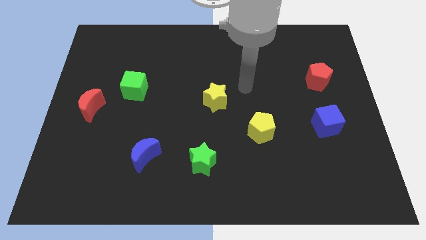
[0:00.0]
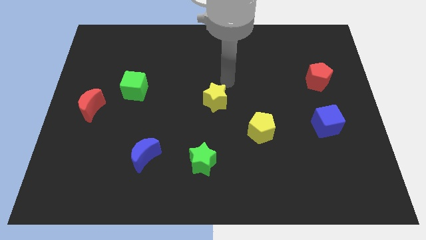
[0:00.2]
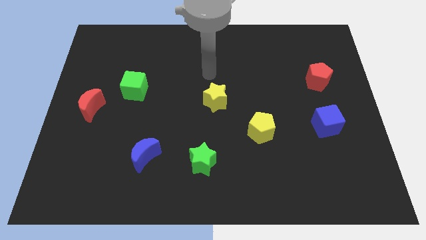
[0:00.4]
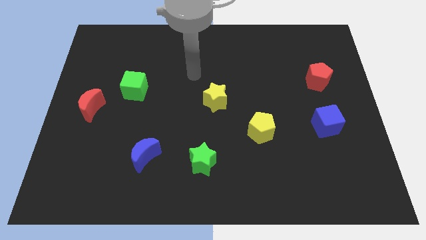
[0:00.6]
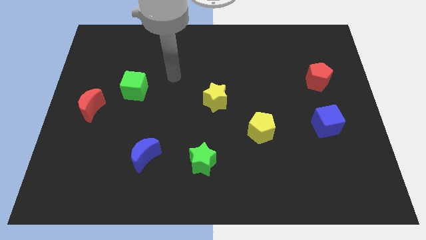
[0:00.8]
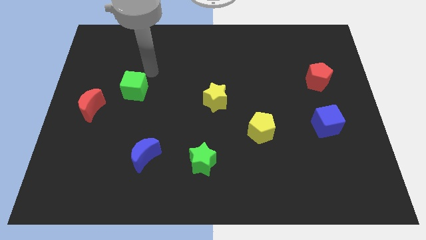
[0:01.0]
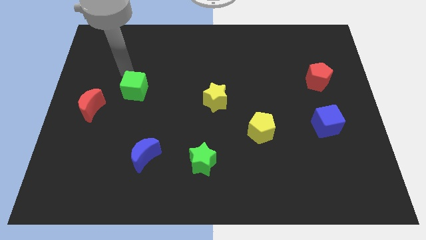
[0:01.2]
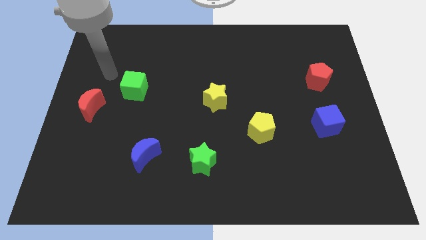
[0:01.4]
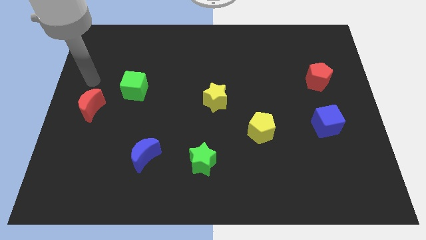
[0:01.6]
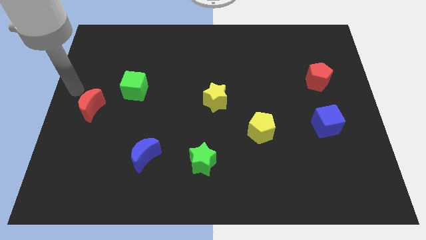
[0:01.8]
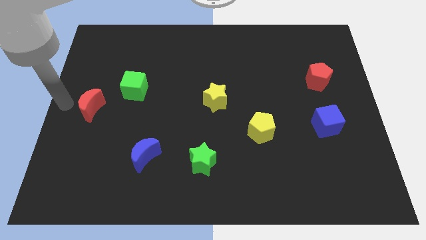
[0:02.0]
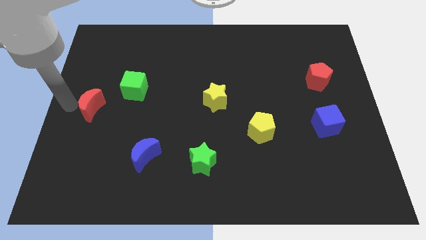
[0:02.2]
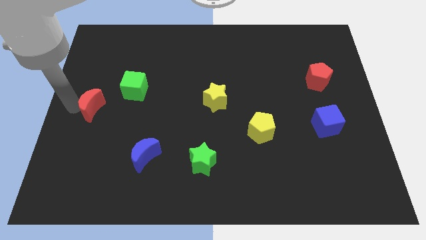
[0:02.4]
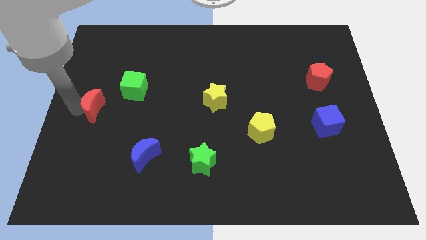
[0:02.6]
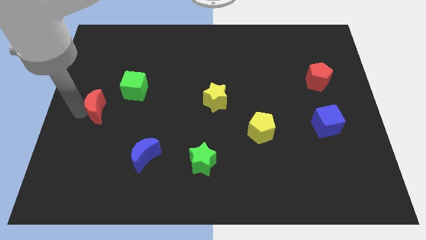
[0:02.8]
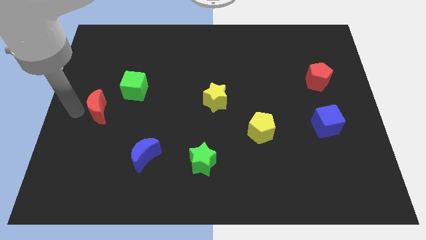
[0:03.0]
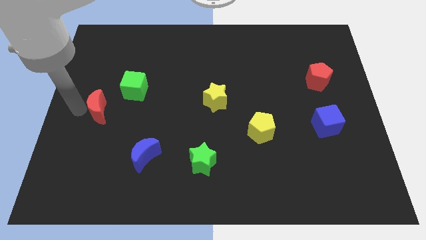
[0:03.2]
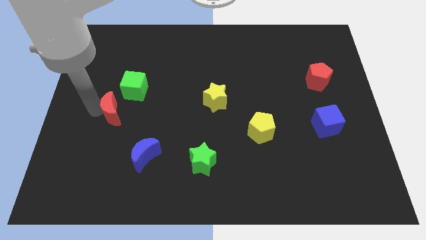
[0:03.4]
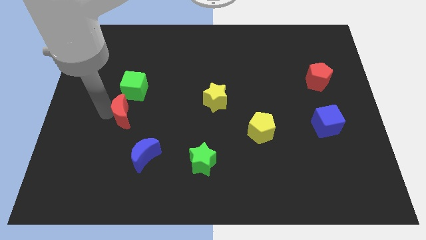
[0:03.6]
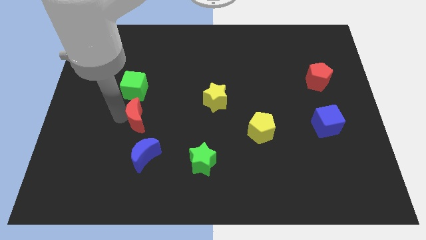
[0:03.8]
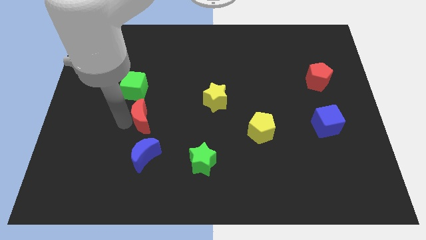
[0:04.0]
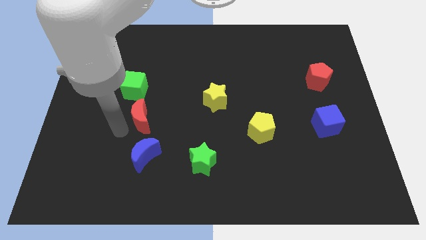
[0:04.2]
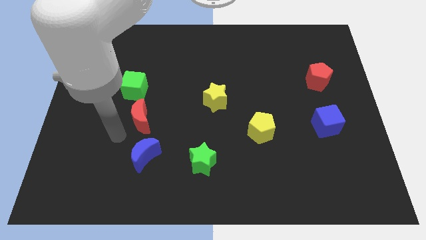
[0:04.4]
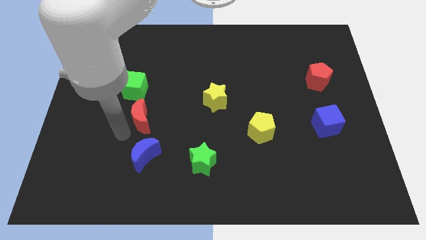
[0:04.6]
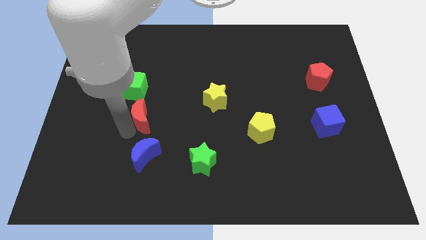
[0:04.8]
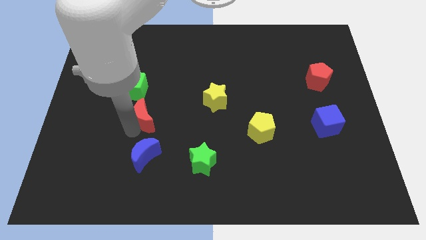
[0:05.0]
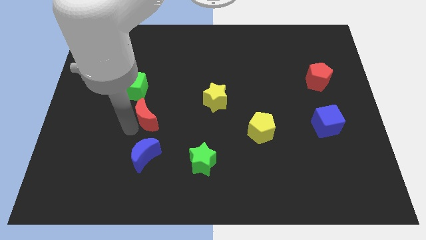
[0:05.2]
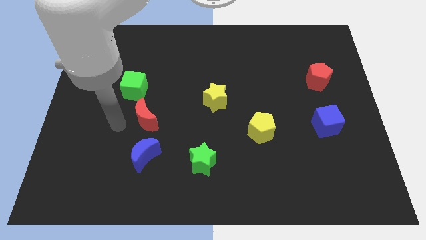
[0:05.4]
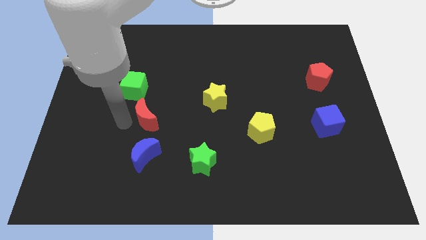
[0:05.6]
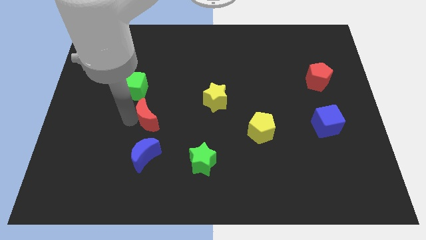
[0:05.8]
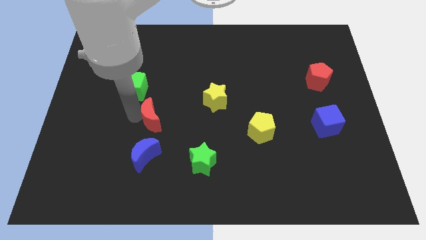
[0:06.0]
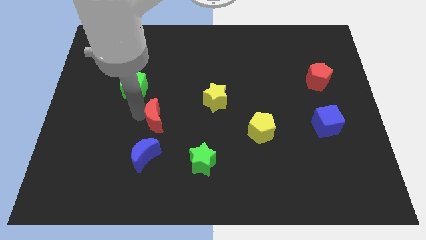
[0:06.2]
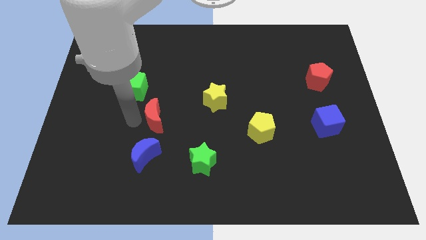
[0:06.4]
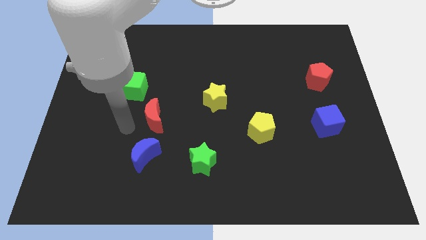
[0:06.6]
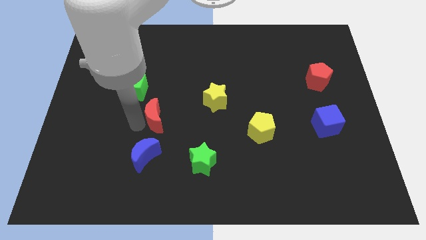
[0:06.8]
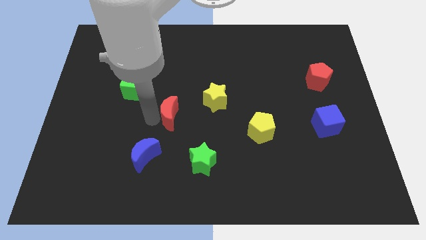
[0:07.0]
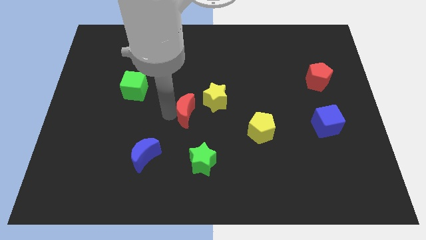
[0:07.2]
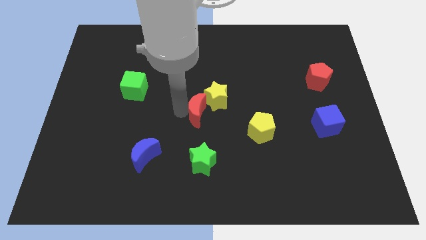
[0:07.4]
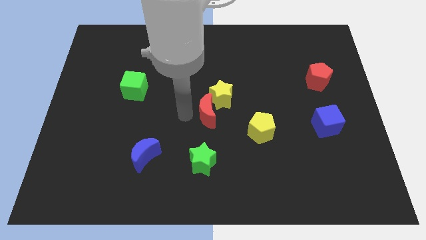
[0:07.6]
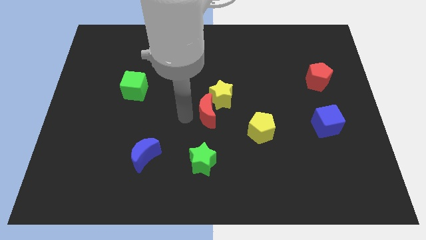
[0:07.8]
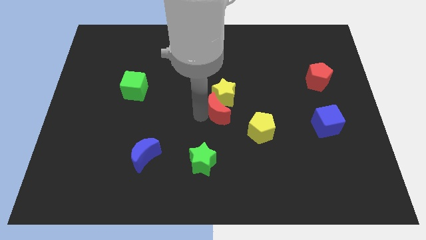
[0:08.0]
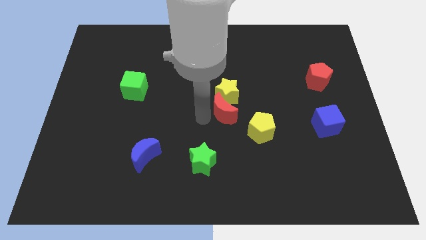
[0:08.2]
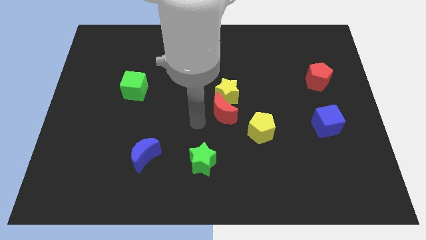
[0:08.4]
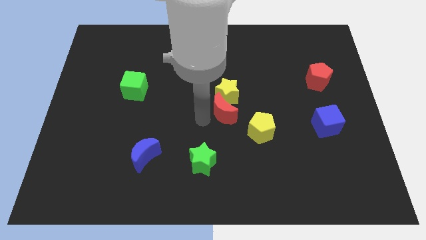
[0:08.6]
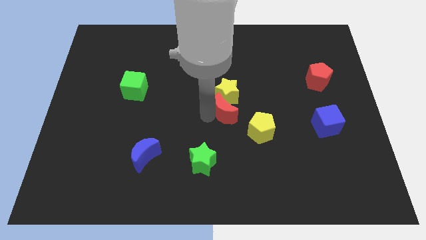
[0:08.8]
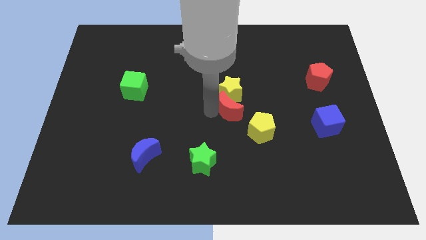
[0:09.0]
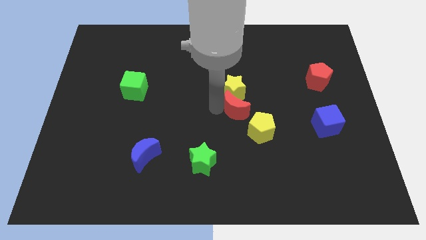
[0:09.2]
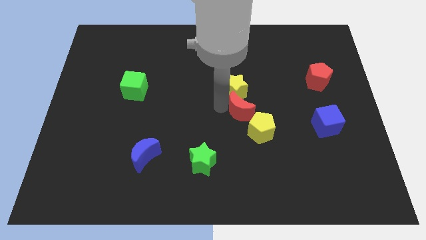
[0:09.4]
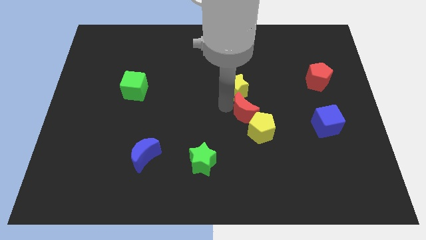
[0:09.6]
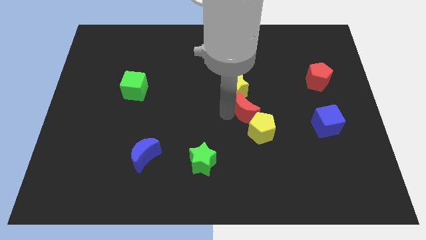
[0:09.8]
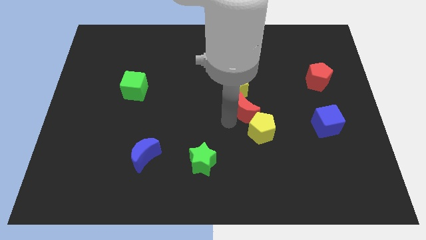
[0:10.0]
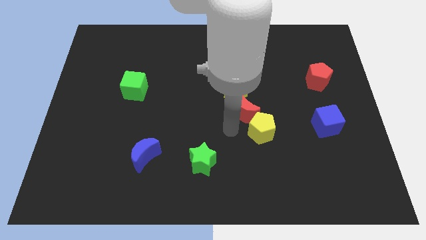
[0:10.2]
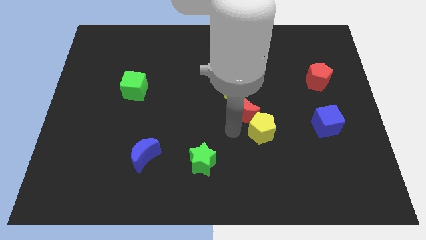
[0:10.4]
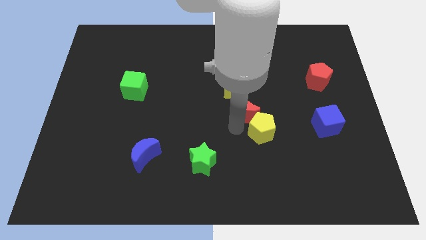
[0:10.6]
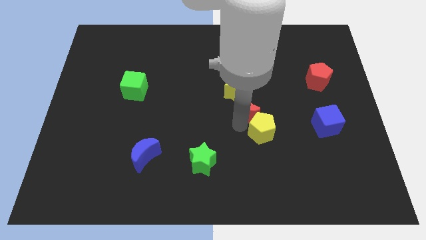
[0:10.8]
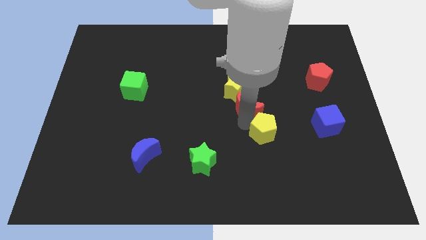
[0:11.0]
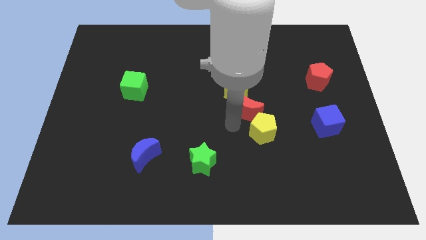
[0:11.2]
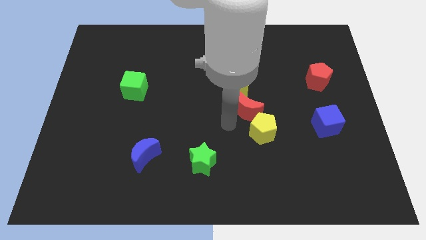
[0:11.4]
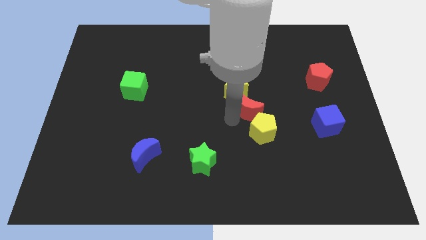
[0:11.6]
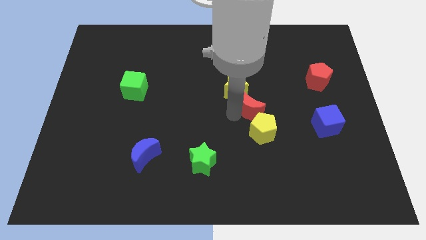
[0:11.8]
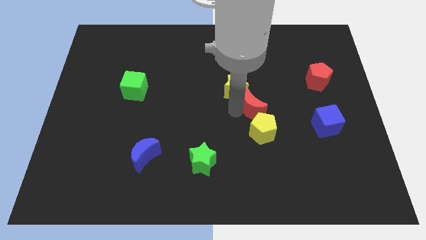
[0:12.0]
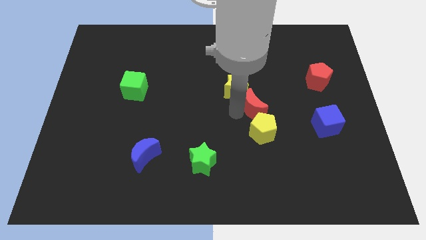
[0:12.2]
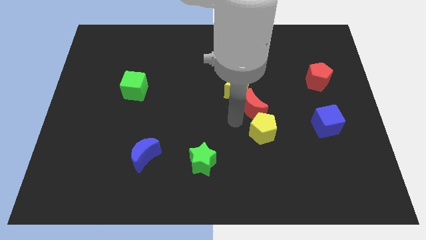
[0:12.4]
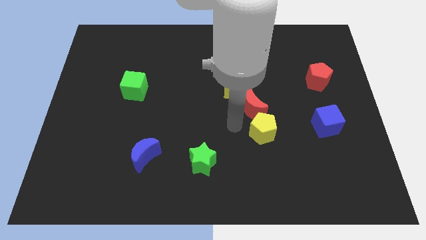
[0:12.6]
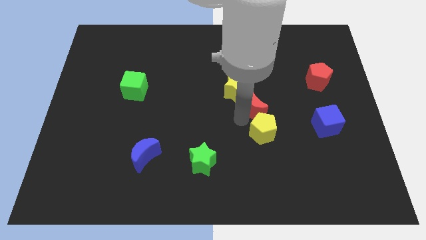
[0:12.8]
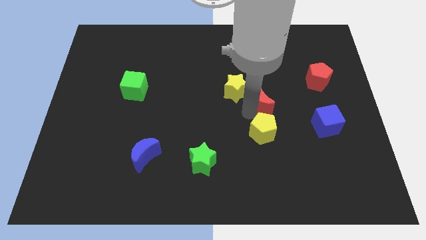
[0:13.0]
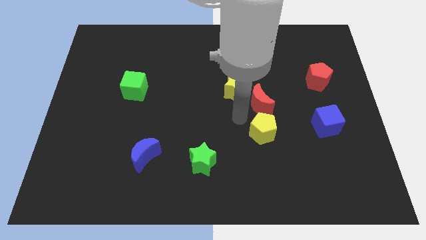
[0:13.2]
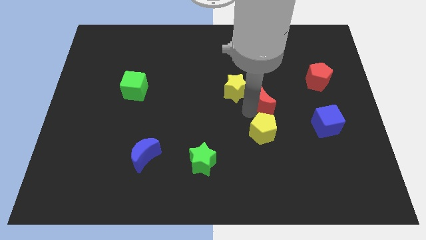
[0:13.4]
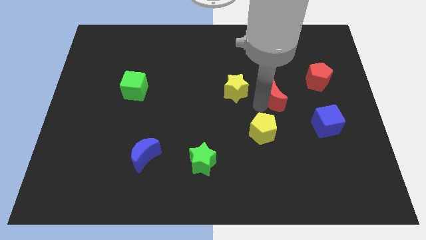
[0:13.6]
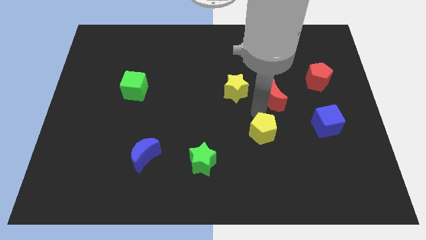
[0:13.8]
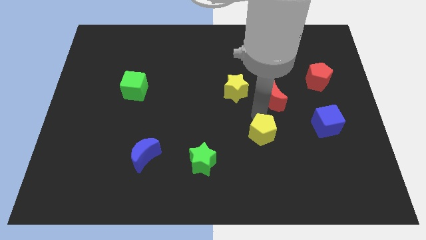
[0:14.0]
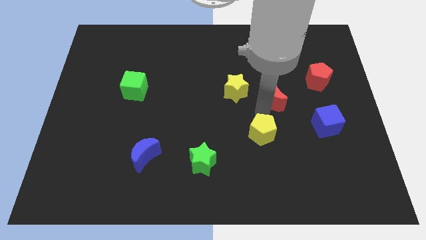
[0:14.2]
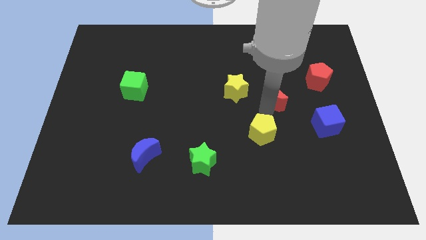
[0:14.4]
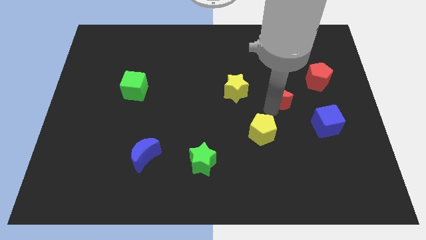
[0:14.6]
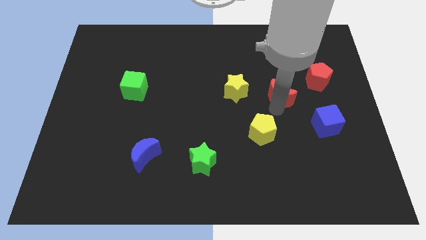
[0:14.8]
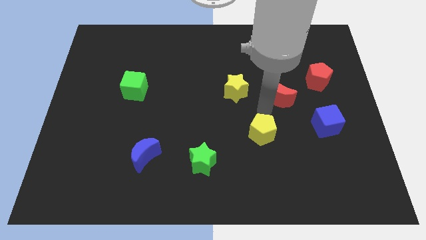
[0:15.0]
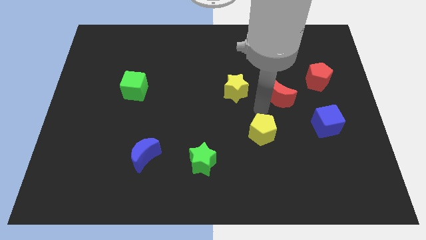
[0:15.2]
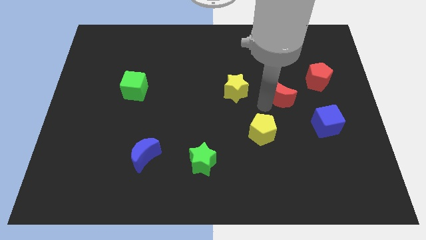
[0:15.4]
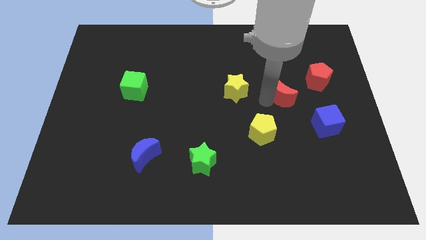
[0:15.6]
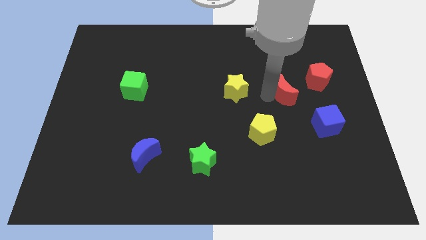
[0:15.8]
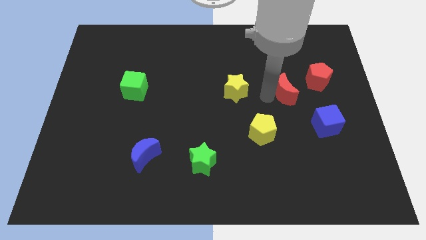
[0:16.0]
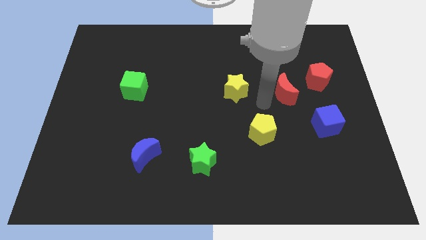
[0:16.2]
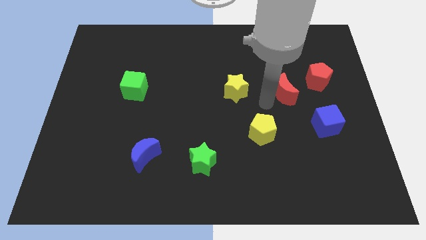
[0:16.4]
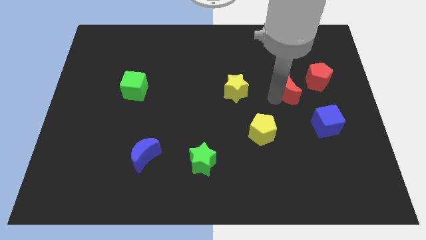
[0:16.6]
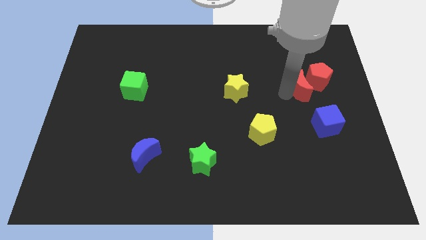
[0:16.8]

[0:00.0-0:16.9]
put the red moon towards the red pentagon
